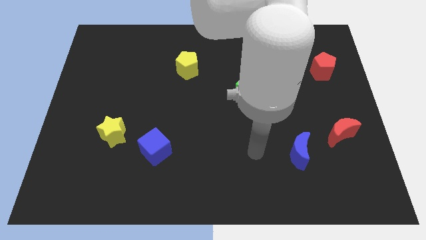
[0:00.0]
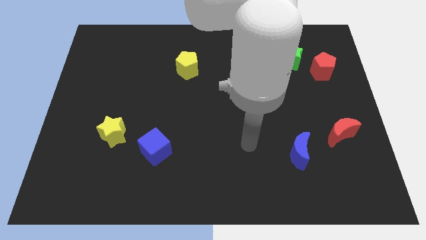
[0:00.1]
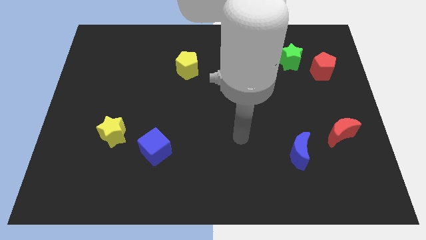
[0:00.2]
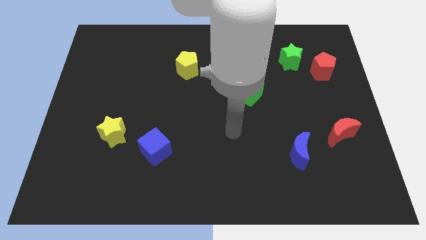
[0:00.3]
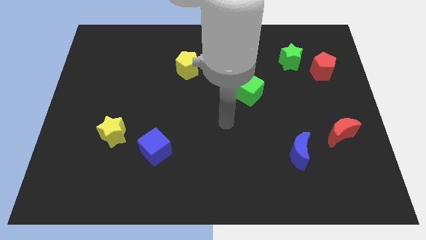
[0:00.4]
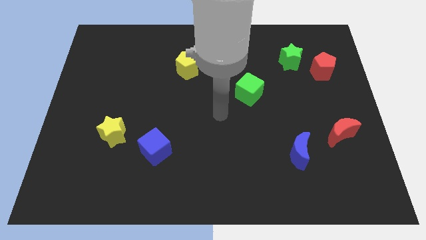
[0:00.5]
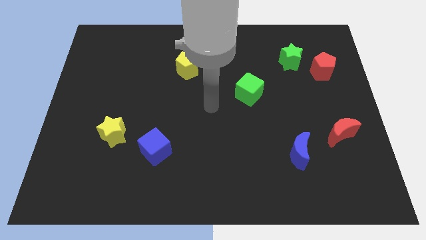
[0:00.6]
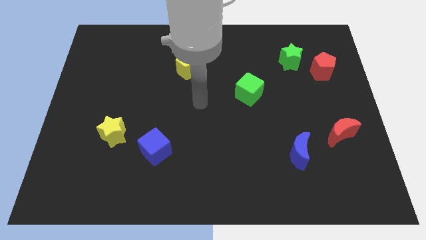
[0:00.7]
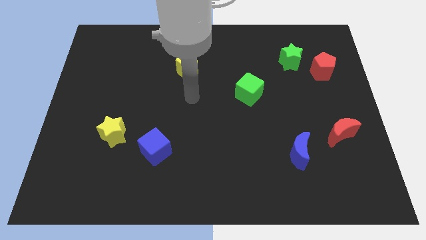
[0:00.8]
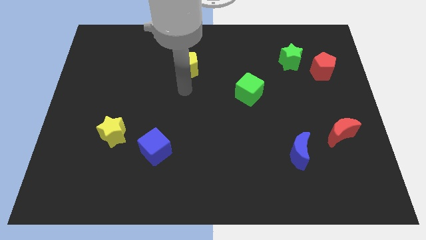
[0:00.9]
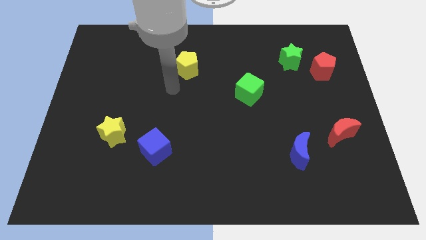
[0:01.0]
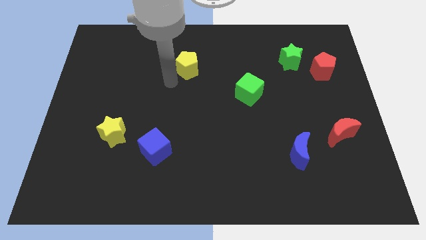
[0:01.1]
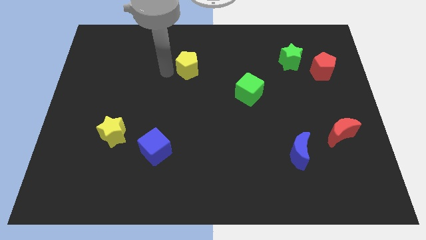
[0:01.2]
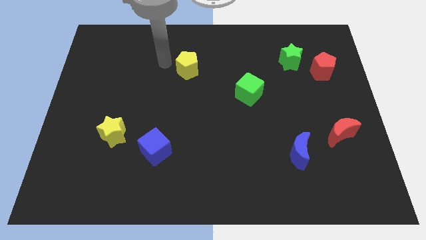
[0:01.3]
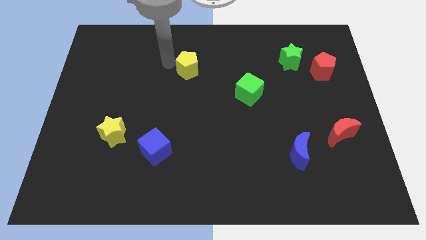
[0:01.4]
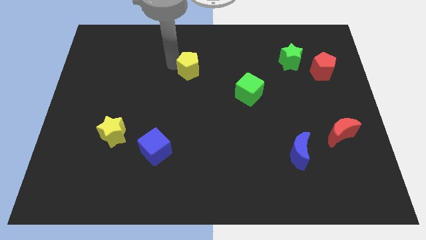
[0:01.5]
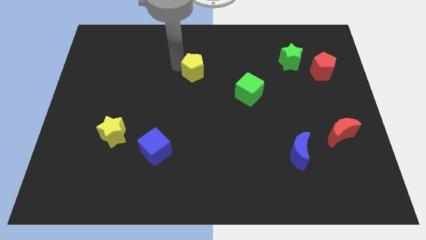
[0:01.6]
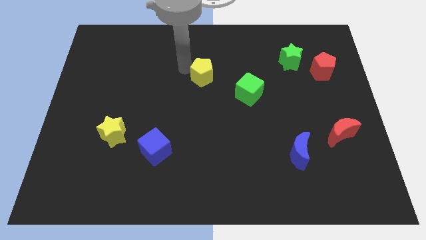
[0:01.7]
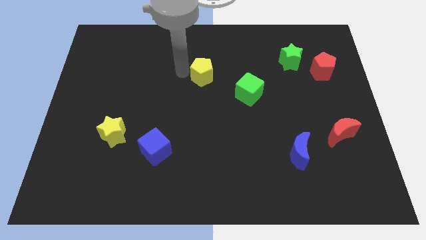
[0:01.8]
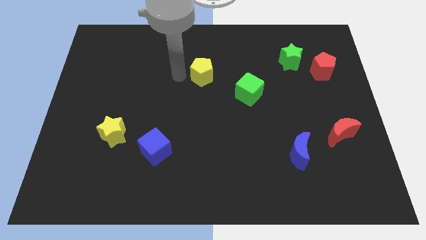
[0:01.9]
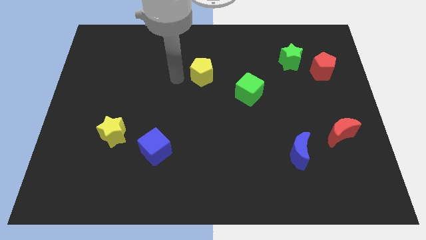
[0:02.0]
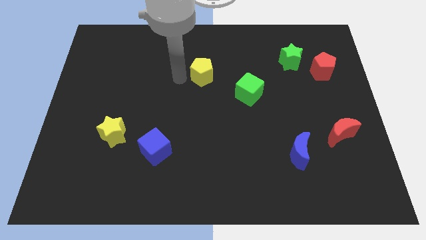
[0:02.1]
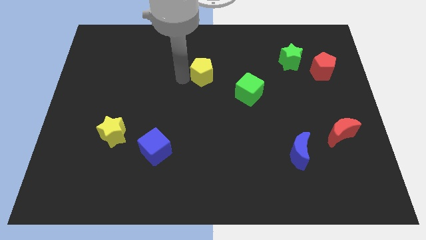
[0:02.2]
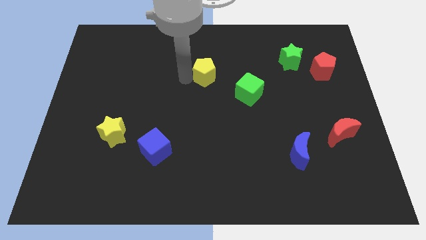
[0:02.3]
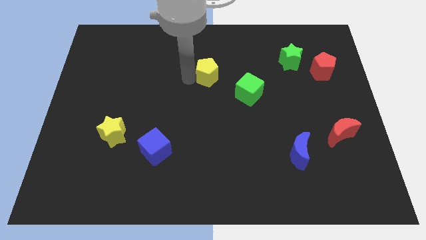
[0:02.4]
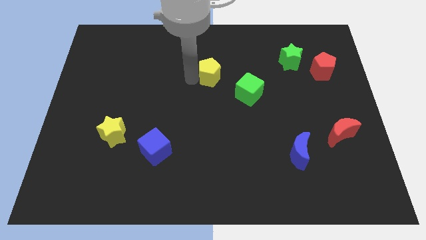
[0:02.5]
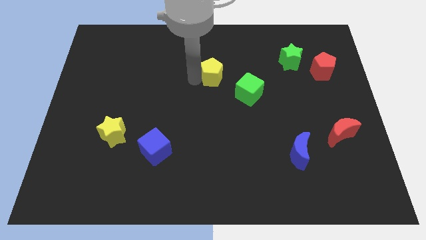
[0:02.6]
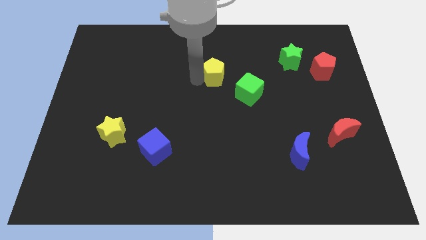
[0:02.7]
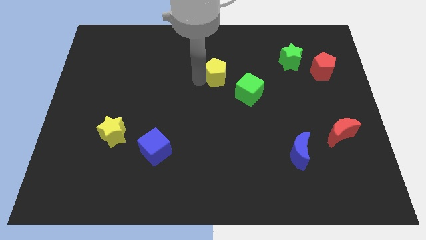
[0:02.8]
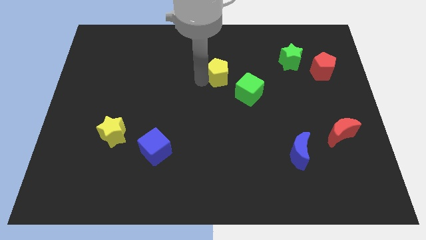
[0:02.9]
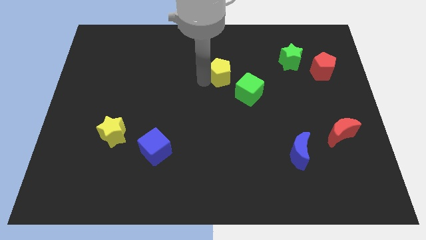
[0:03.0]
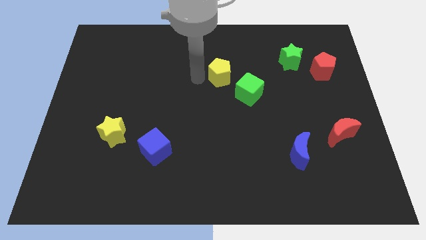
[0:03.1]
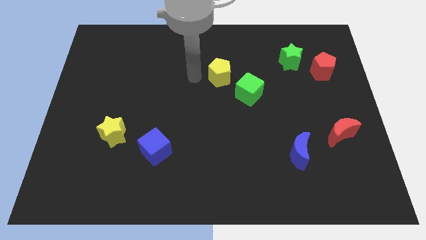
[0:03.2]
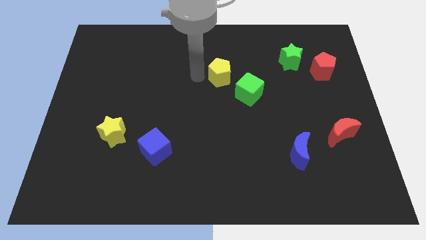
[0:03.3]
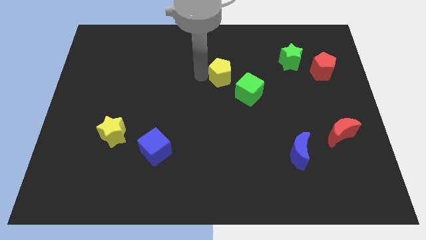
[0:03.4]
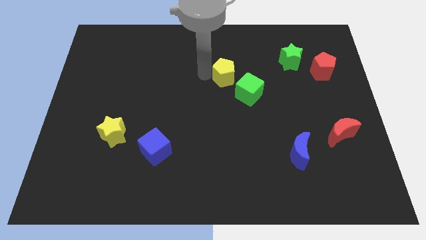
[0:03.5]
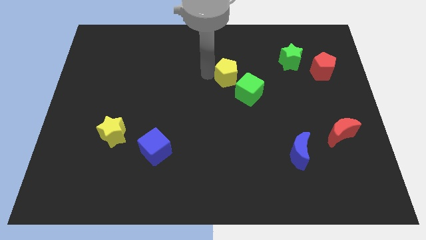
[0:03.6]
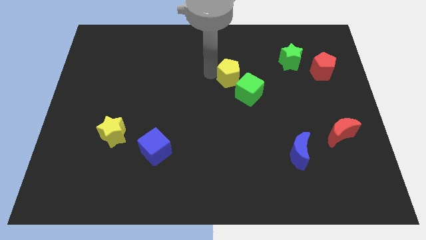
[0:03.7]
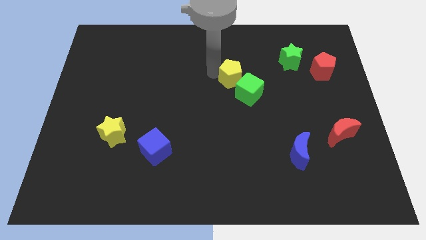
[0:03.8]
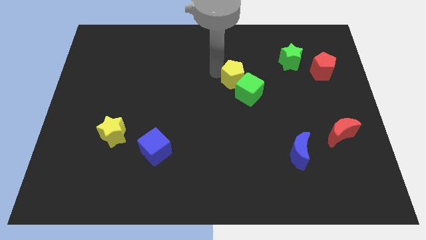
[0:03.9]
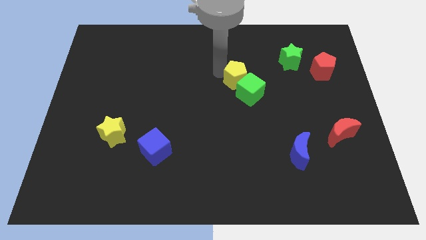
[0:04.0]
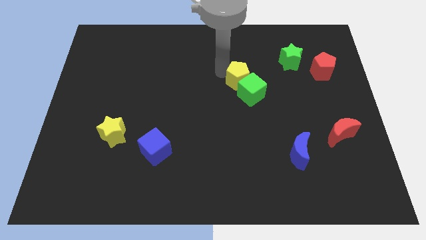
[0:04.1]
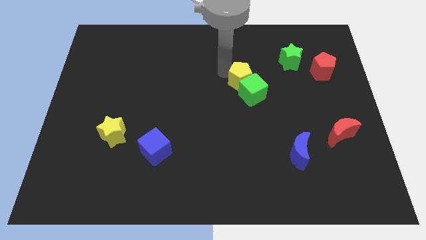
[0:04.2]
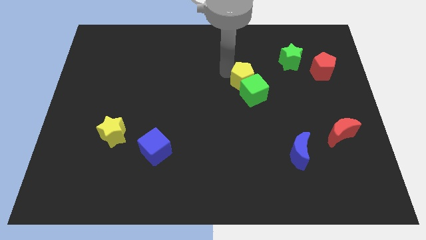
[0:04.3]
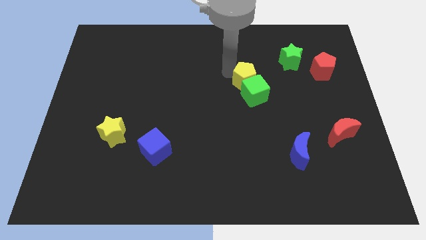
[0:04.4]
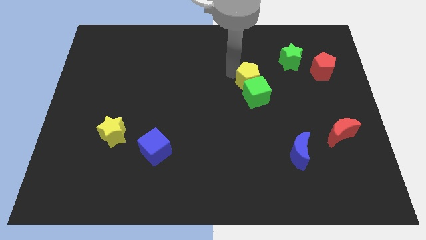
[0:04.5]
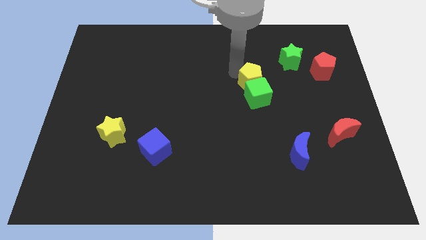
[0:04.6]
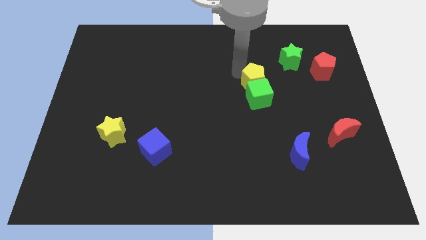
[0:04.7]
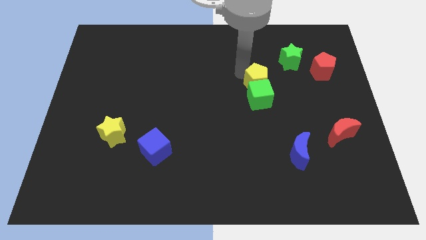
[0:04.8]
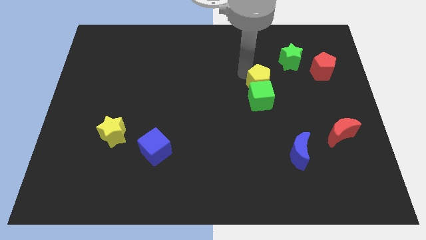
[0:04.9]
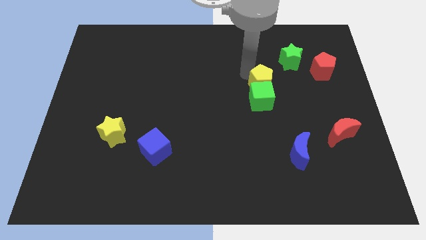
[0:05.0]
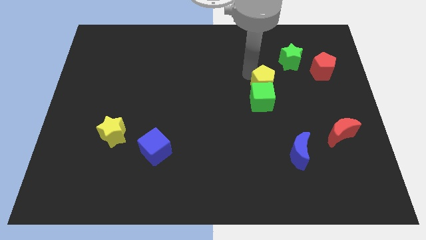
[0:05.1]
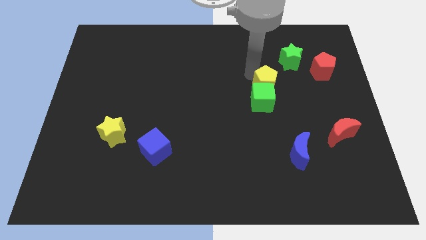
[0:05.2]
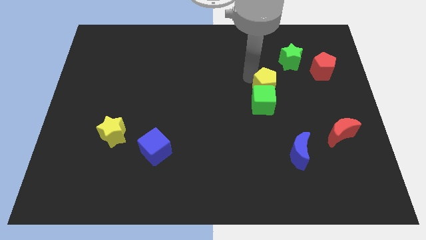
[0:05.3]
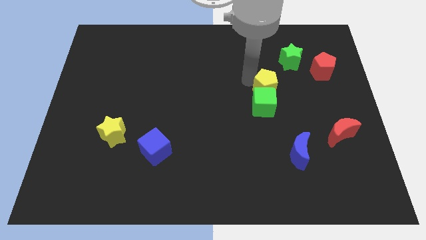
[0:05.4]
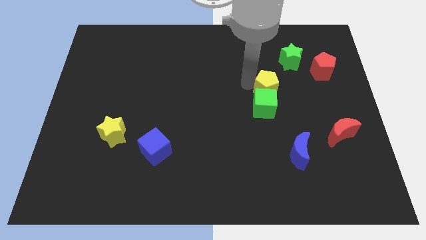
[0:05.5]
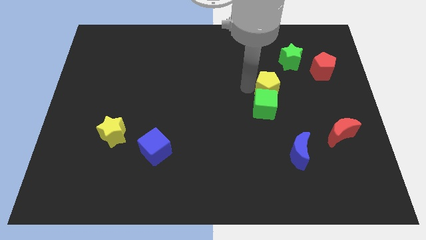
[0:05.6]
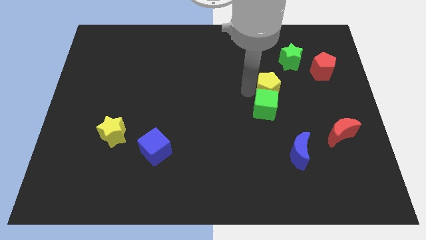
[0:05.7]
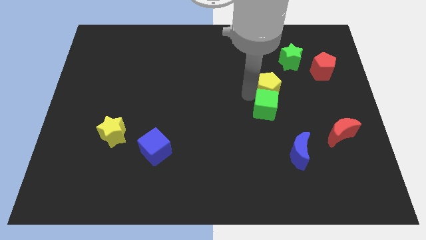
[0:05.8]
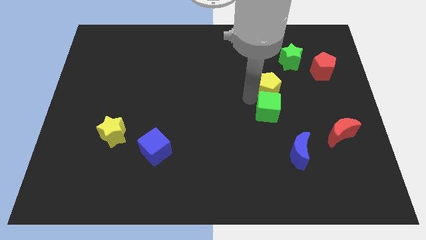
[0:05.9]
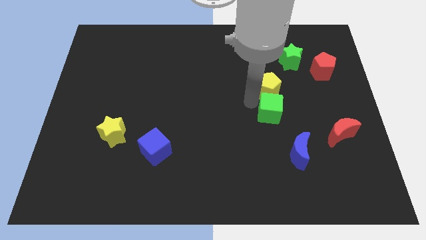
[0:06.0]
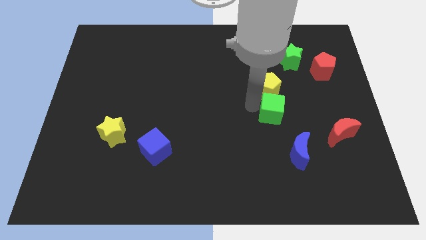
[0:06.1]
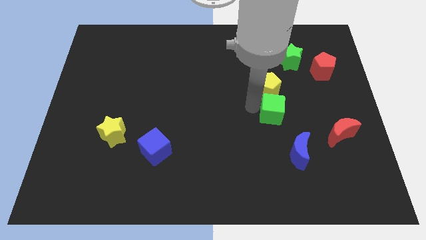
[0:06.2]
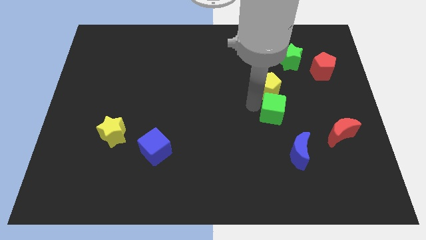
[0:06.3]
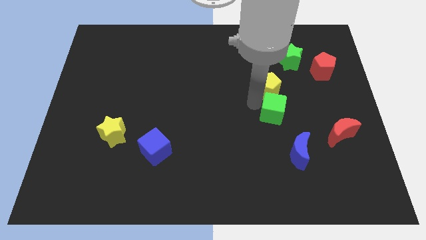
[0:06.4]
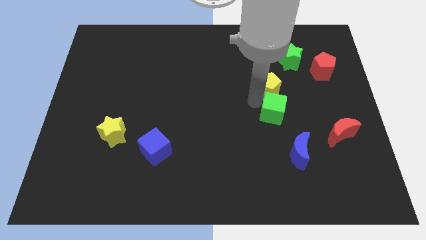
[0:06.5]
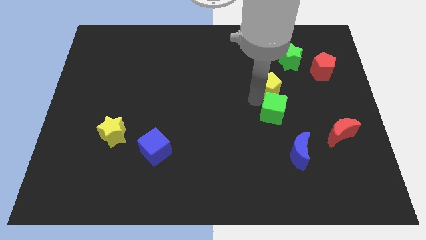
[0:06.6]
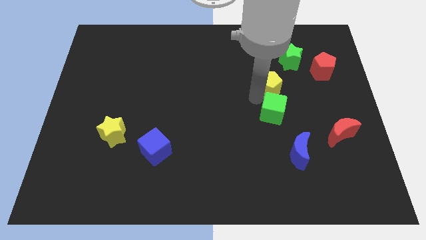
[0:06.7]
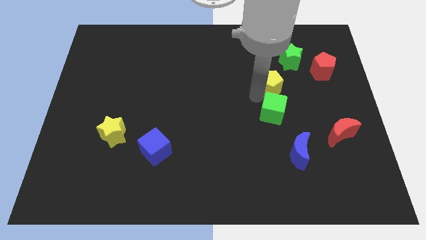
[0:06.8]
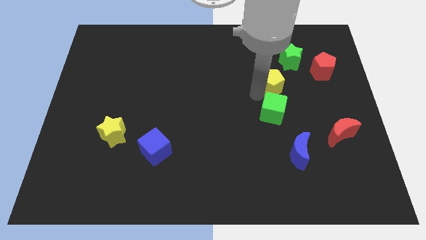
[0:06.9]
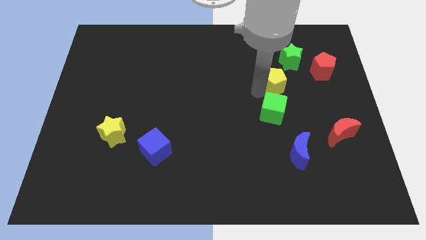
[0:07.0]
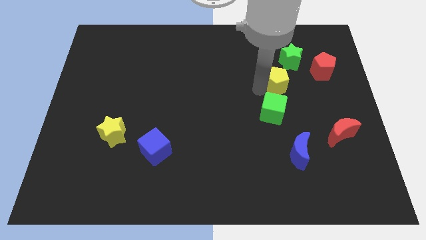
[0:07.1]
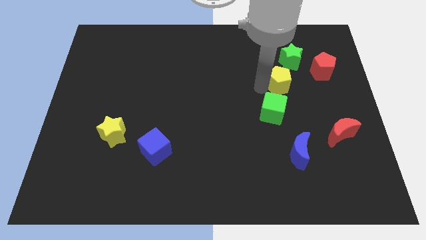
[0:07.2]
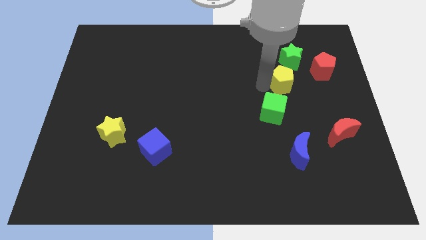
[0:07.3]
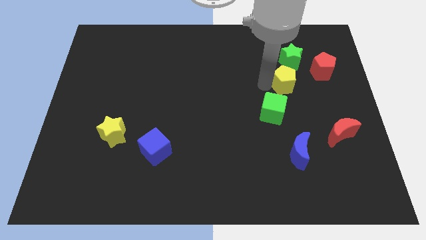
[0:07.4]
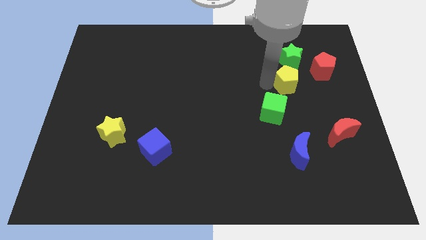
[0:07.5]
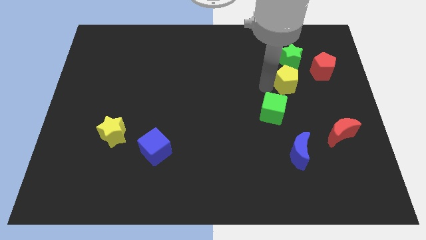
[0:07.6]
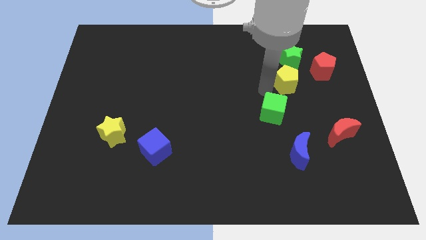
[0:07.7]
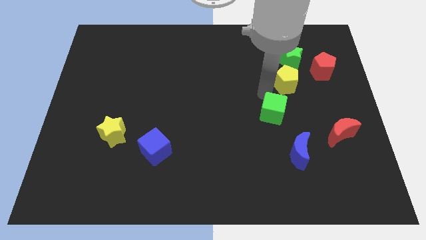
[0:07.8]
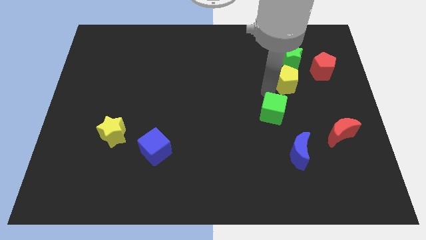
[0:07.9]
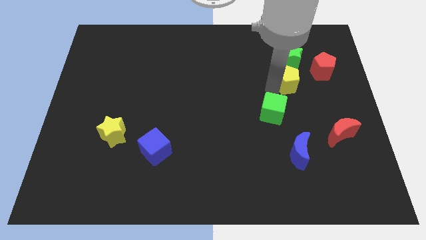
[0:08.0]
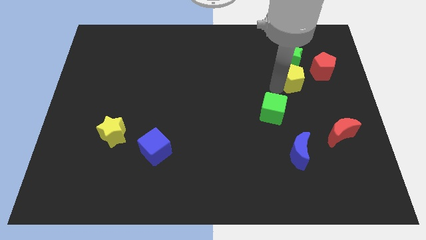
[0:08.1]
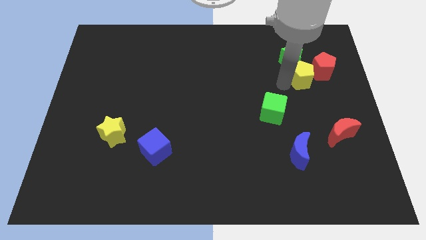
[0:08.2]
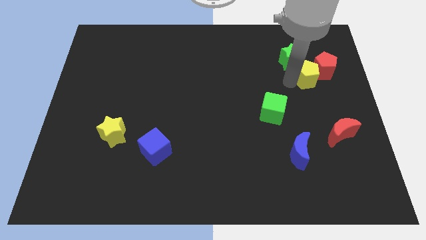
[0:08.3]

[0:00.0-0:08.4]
slide the yellow pentagon to the red pentagon
